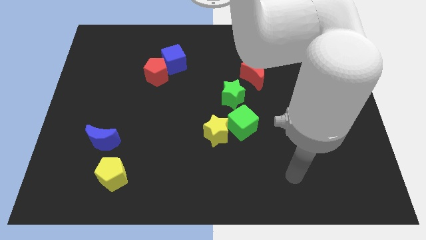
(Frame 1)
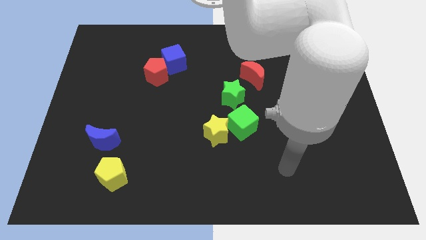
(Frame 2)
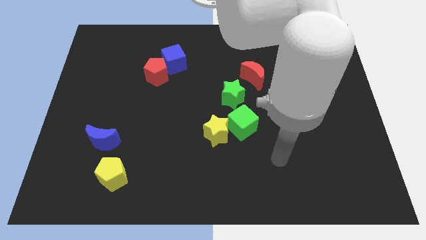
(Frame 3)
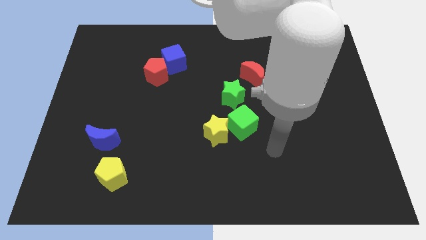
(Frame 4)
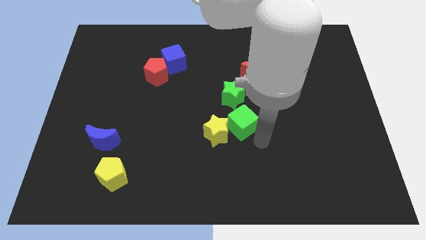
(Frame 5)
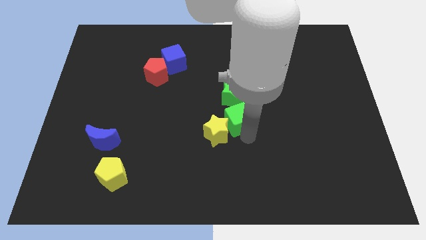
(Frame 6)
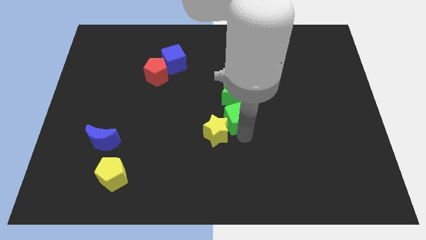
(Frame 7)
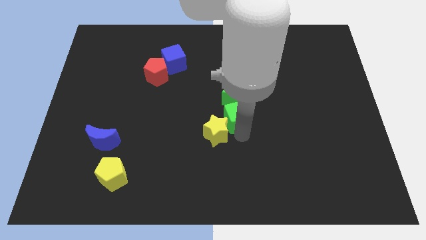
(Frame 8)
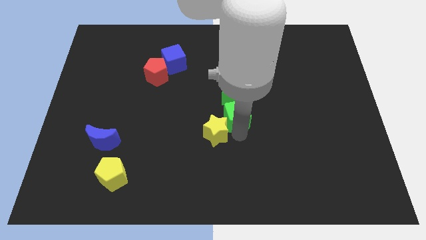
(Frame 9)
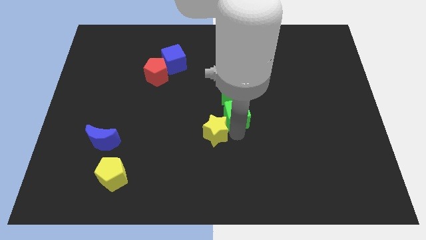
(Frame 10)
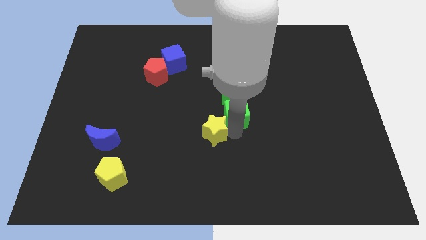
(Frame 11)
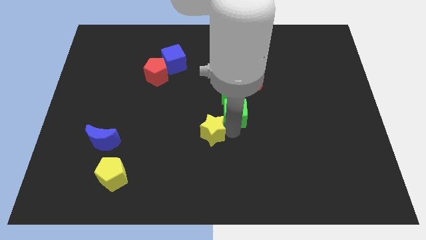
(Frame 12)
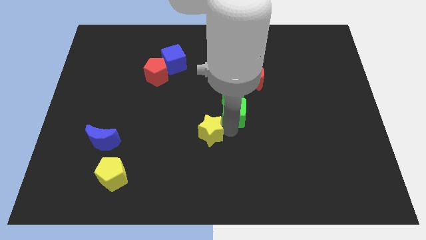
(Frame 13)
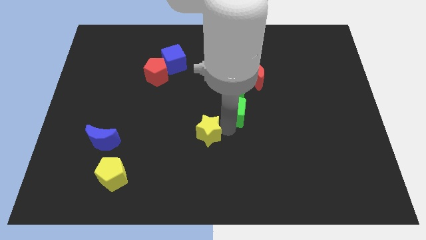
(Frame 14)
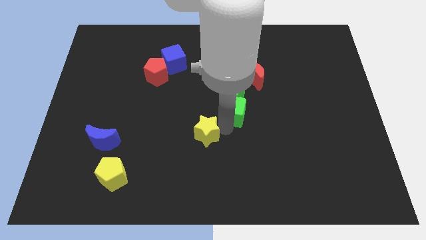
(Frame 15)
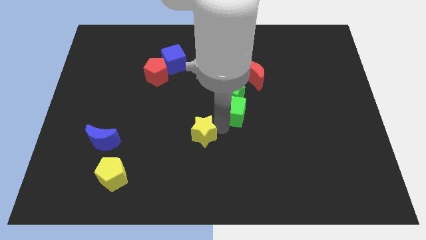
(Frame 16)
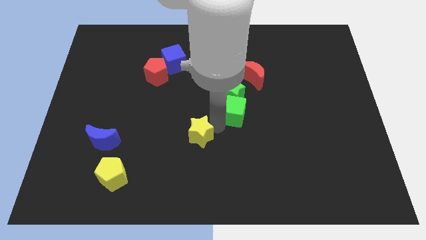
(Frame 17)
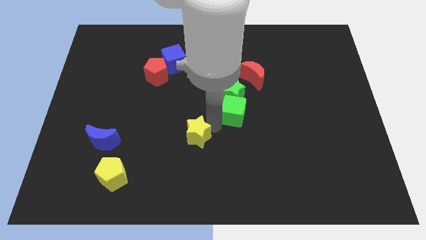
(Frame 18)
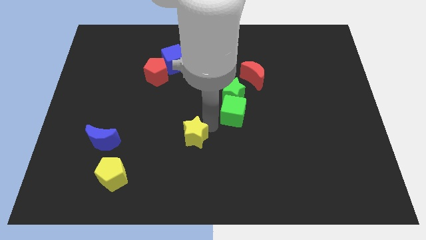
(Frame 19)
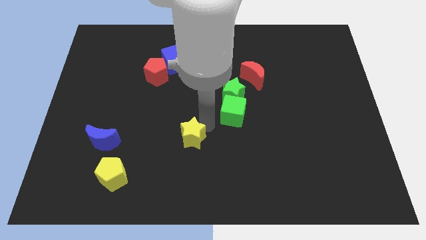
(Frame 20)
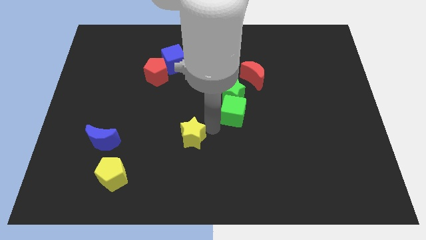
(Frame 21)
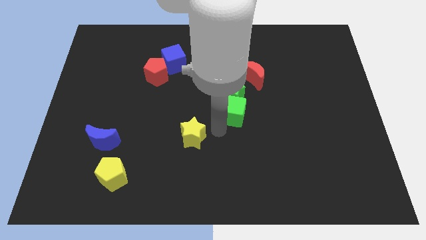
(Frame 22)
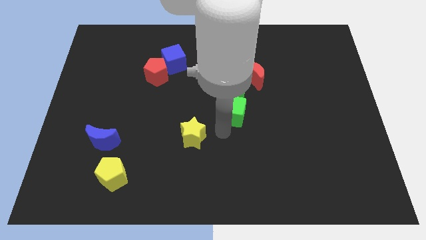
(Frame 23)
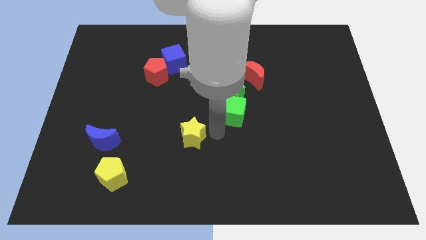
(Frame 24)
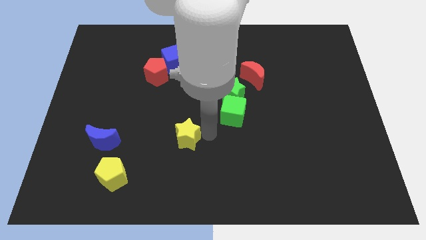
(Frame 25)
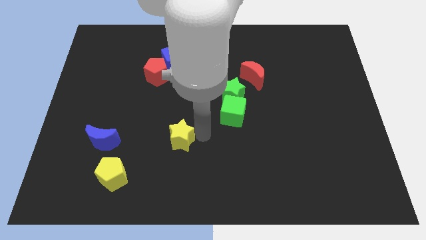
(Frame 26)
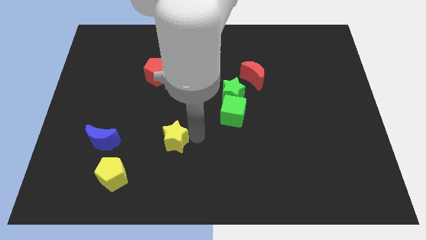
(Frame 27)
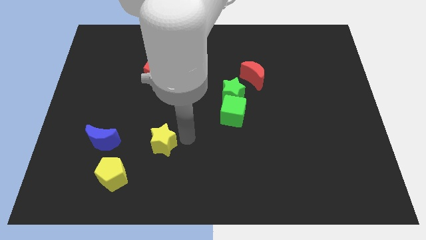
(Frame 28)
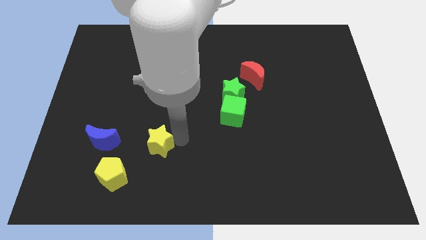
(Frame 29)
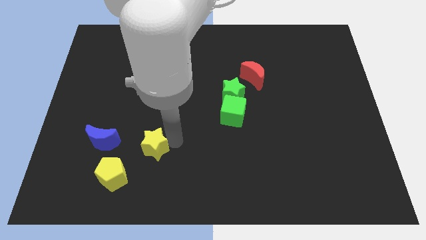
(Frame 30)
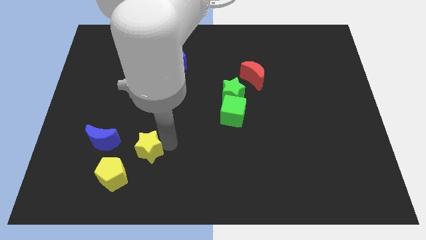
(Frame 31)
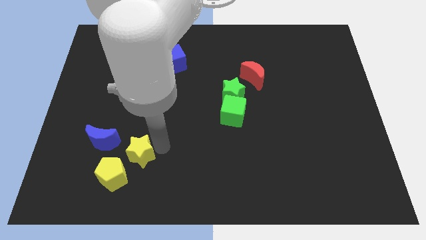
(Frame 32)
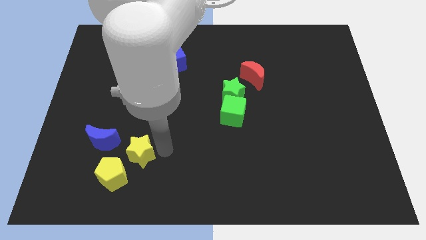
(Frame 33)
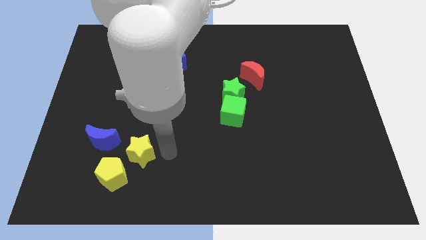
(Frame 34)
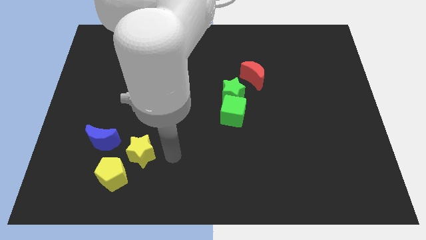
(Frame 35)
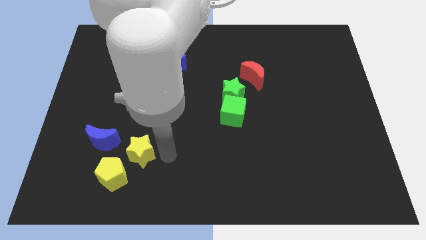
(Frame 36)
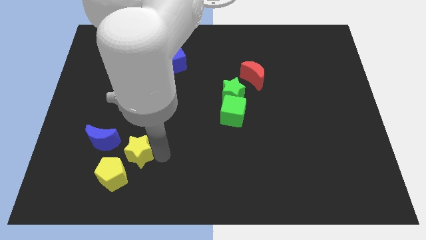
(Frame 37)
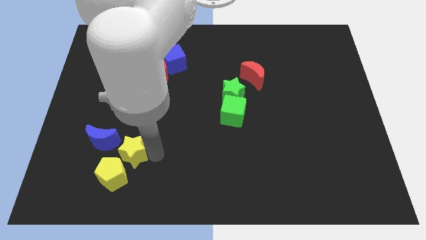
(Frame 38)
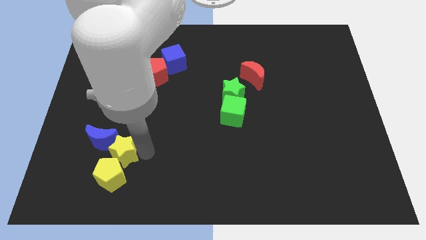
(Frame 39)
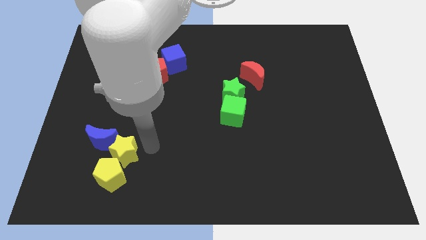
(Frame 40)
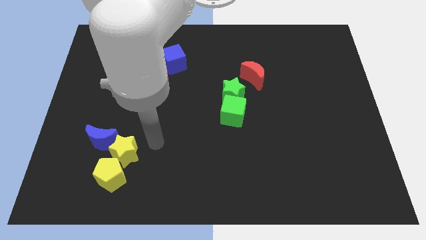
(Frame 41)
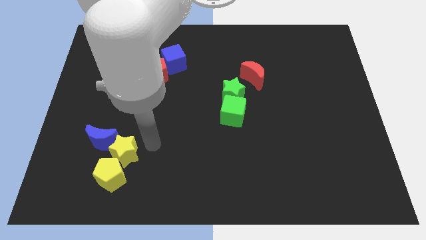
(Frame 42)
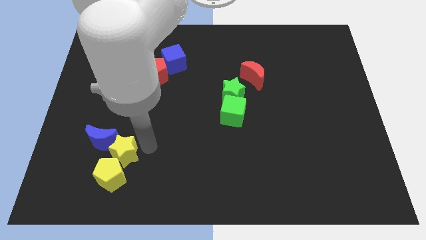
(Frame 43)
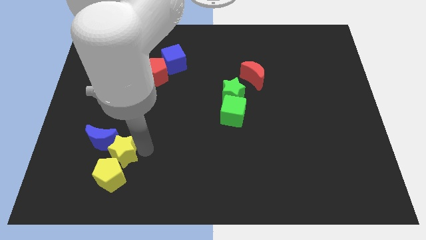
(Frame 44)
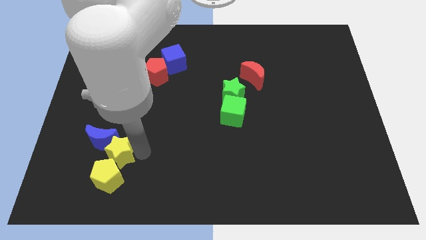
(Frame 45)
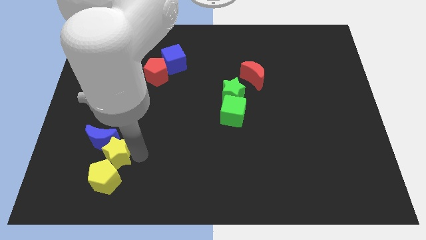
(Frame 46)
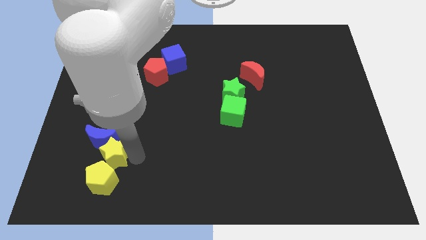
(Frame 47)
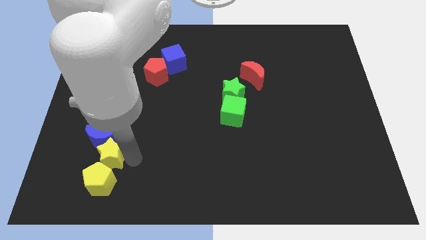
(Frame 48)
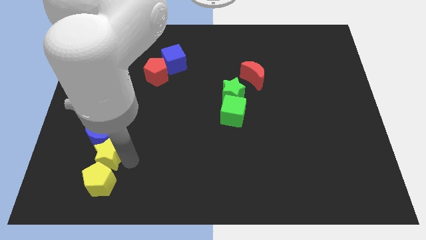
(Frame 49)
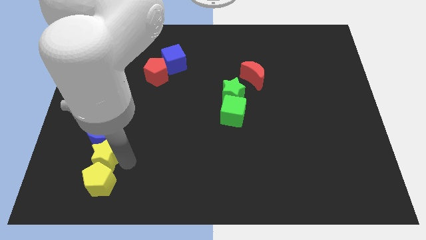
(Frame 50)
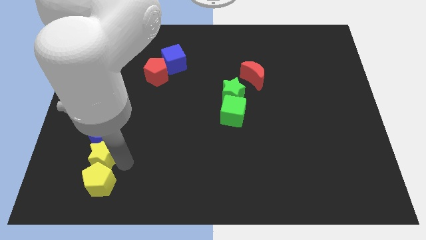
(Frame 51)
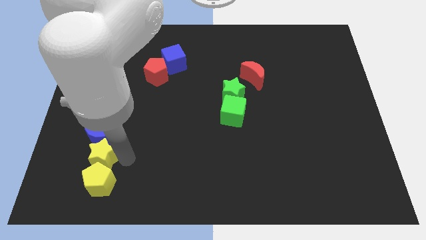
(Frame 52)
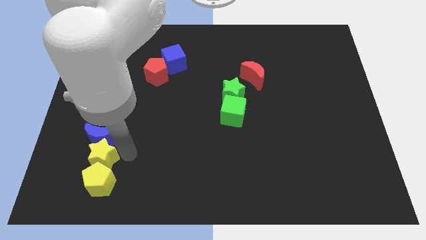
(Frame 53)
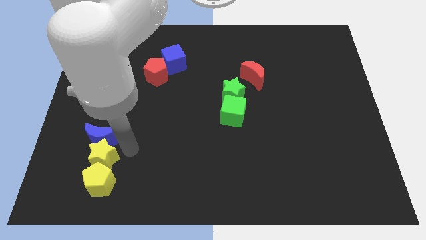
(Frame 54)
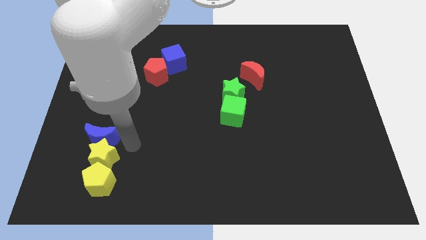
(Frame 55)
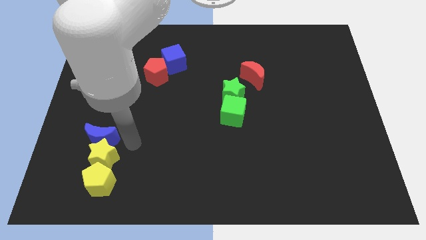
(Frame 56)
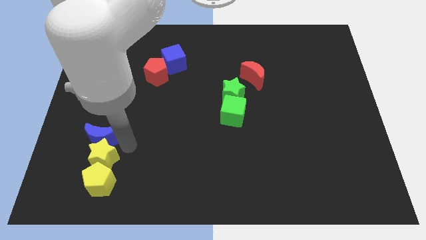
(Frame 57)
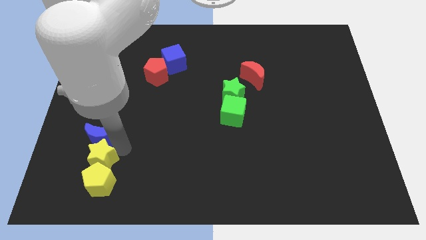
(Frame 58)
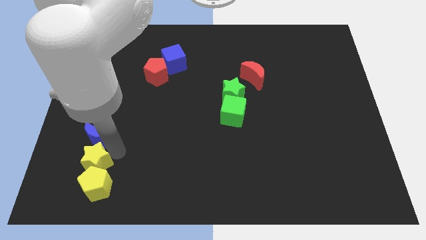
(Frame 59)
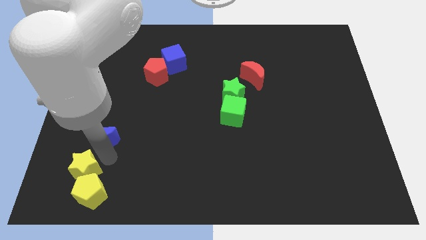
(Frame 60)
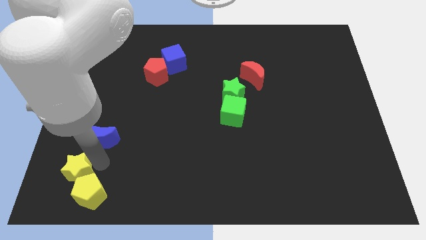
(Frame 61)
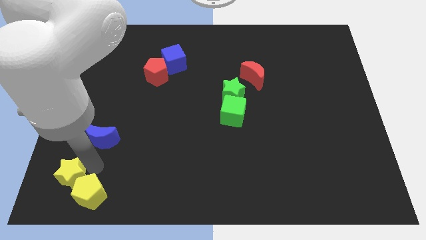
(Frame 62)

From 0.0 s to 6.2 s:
slide the yellow star to the bottom left
